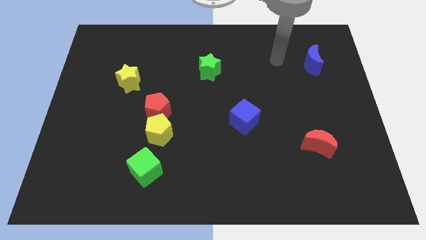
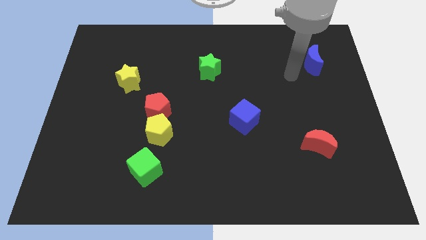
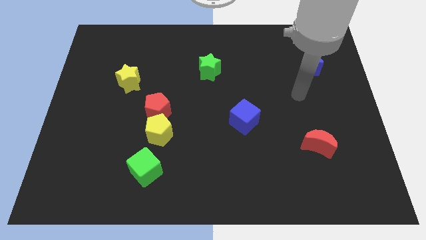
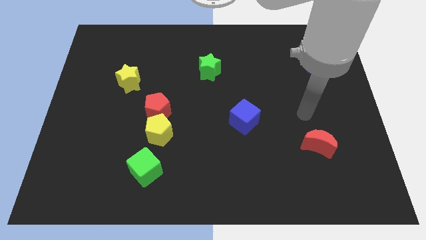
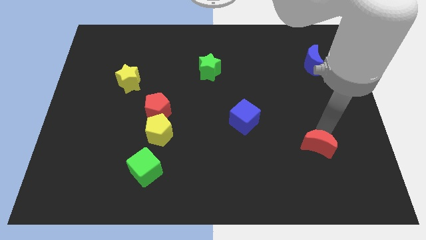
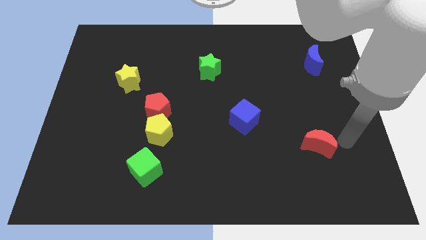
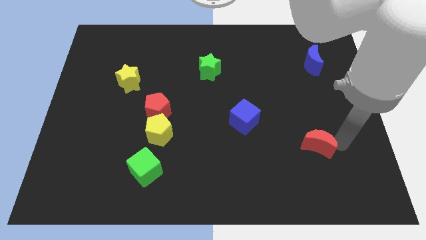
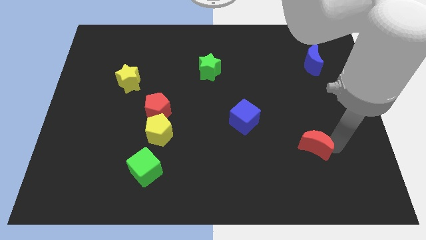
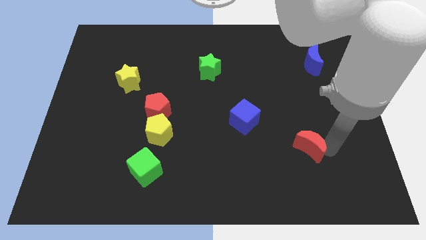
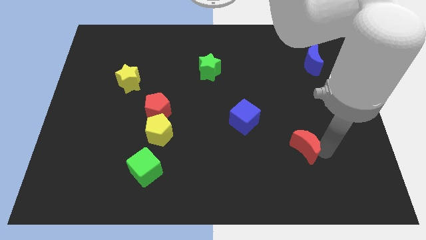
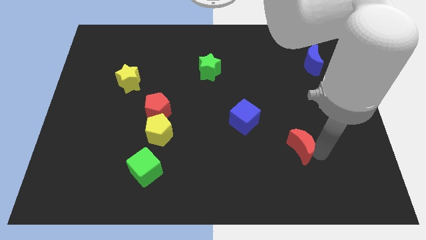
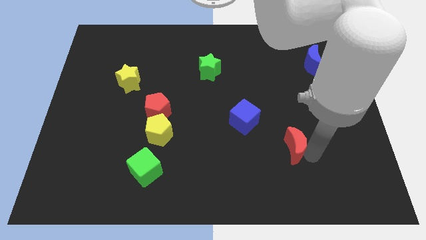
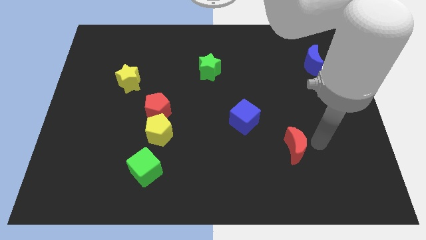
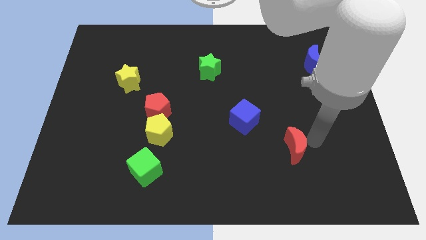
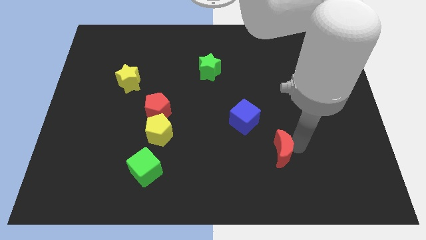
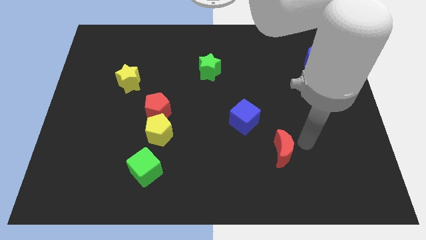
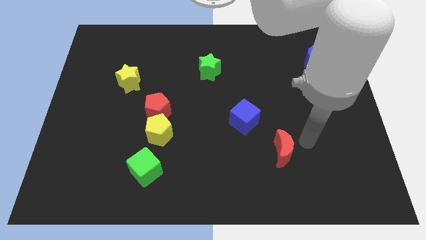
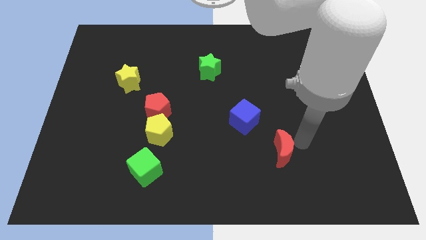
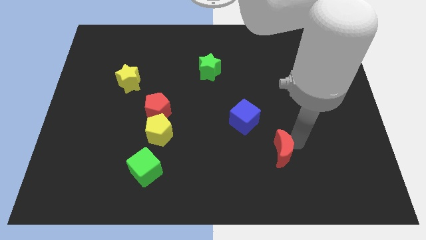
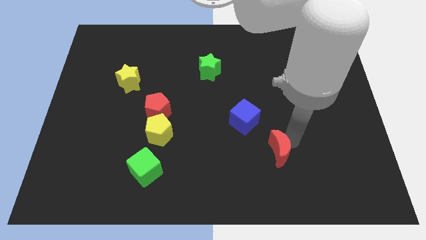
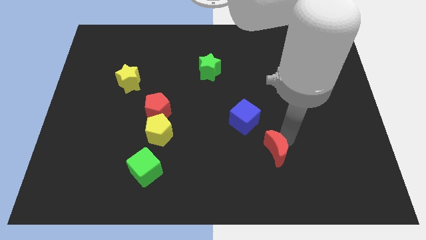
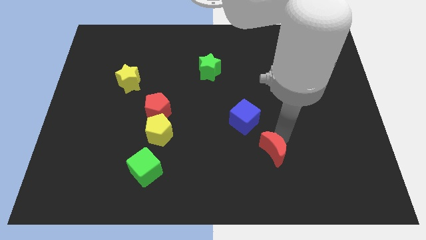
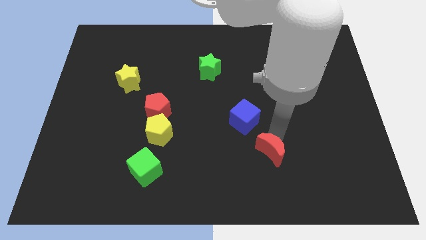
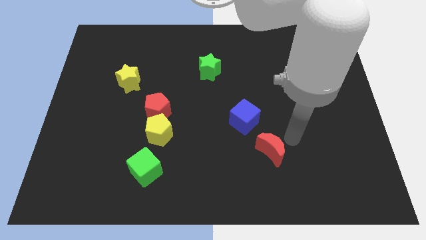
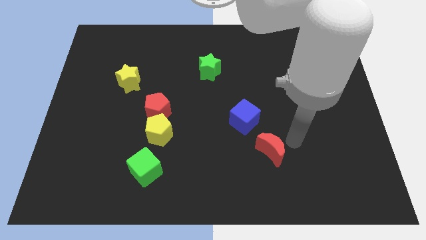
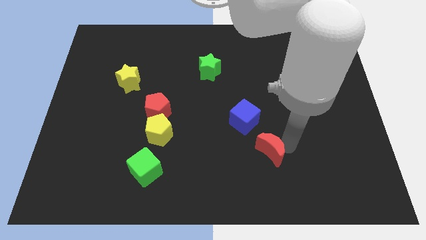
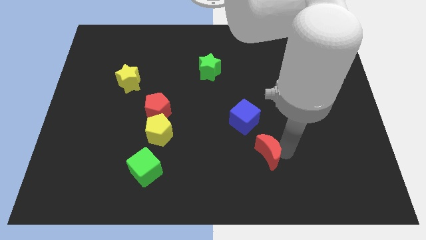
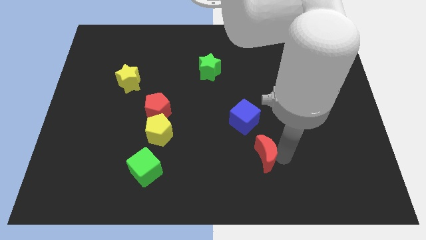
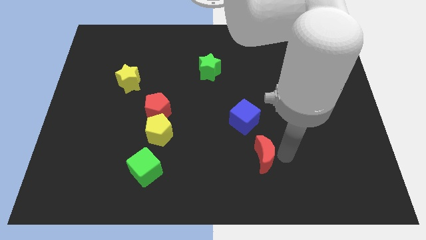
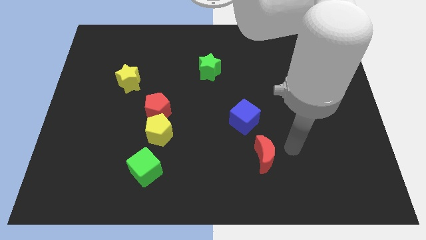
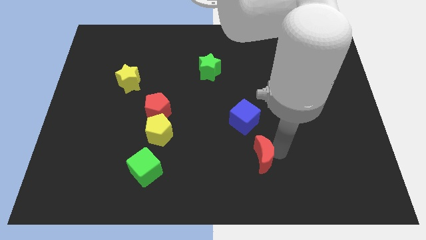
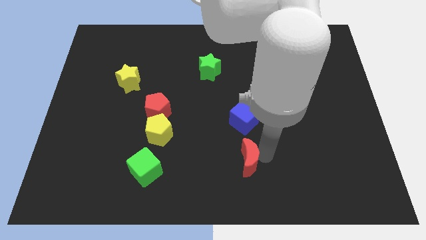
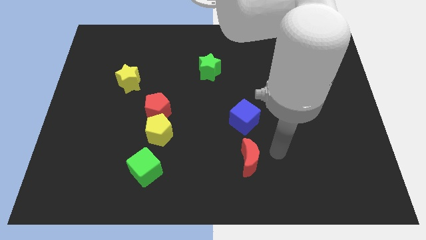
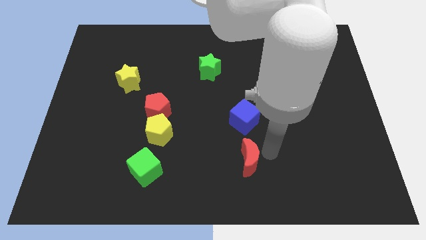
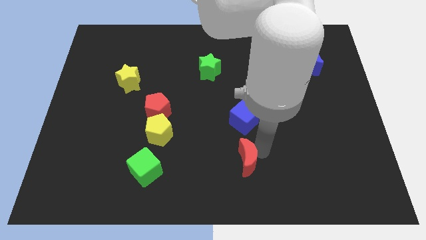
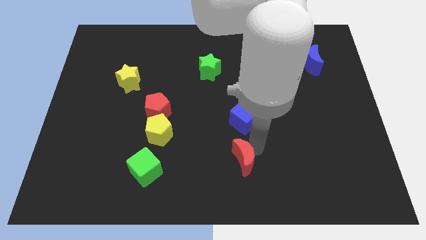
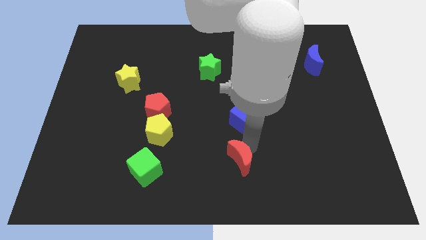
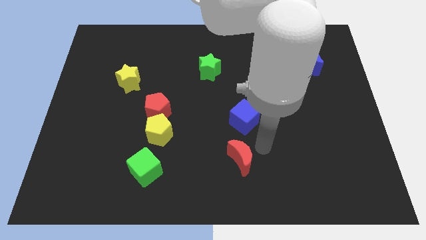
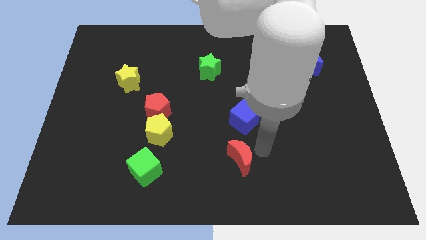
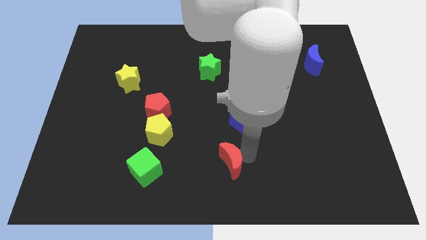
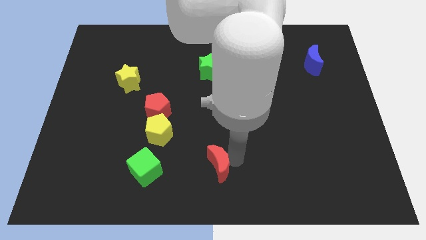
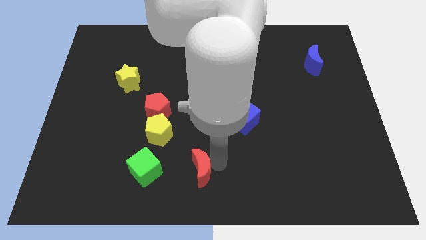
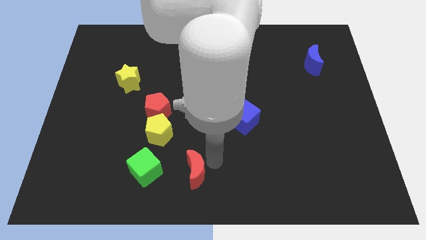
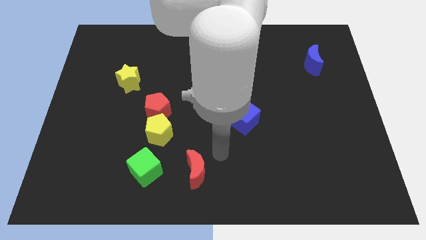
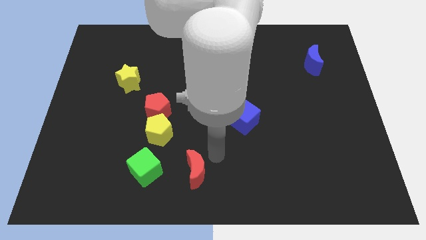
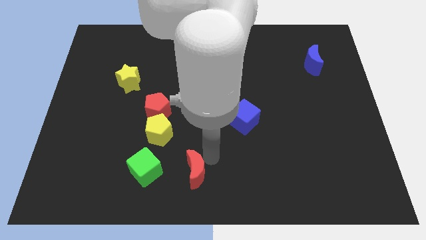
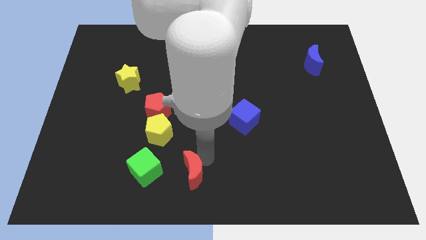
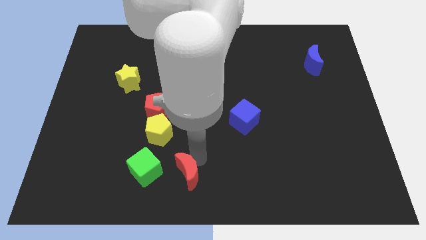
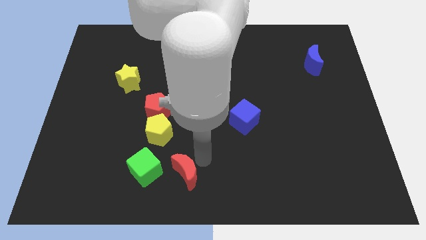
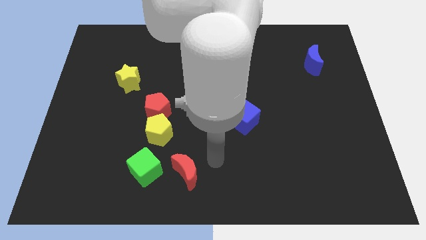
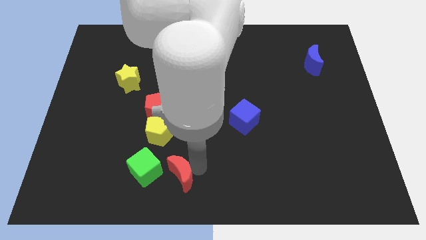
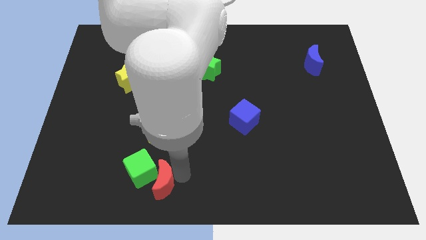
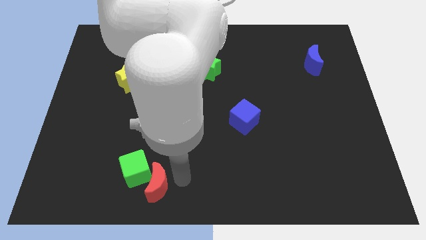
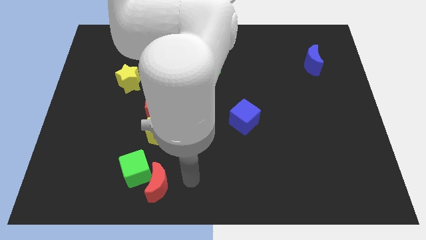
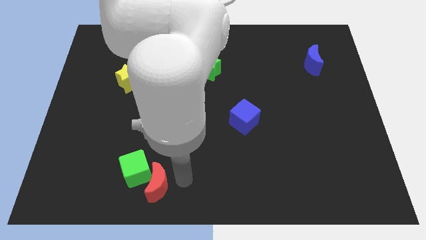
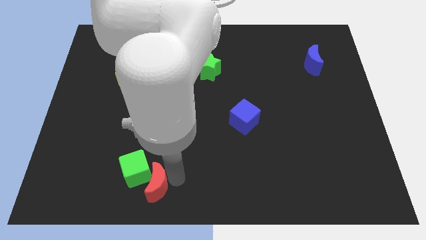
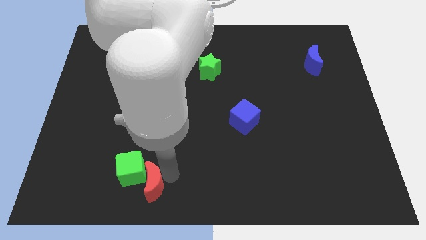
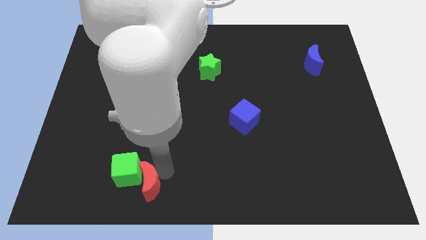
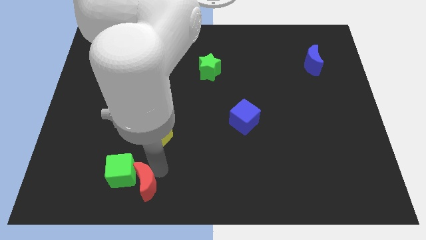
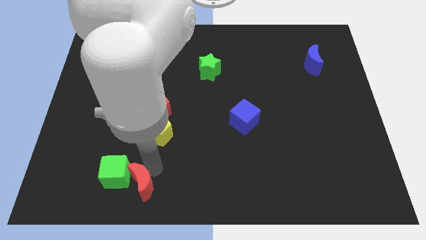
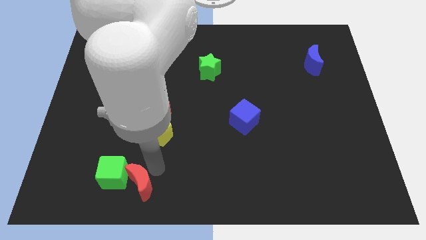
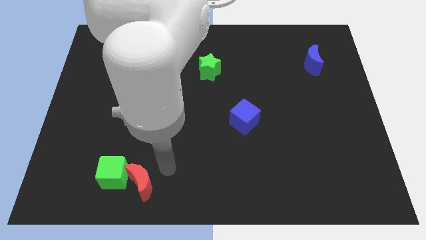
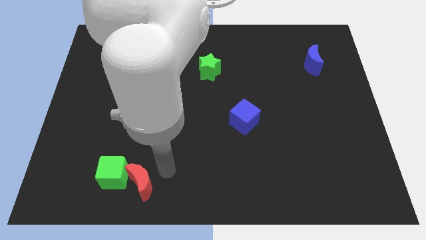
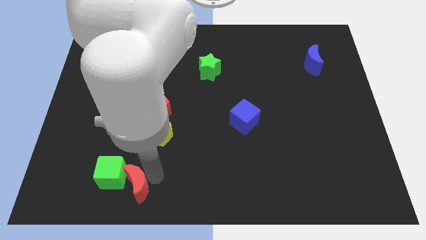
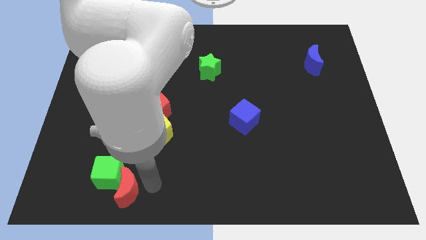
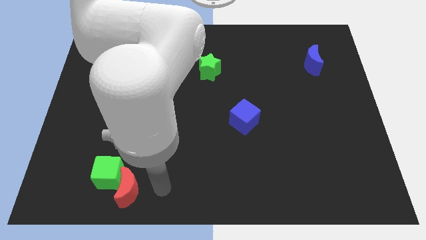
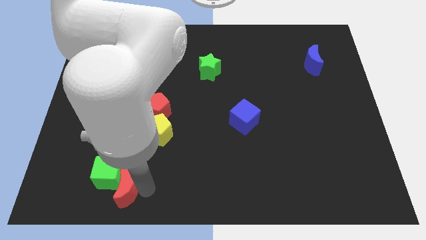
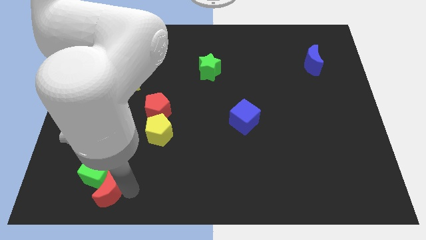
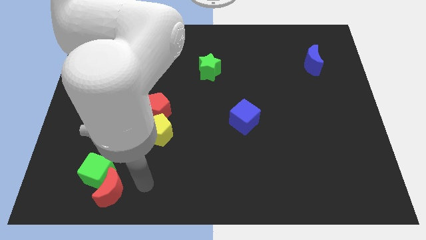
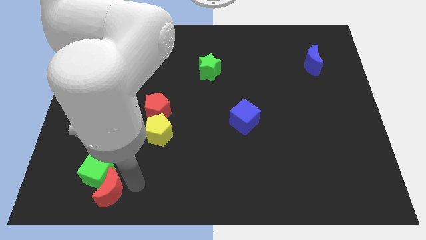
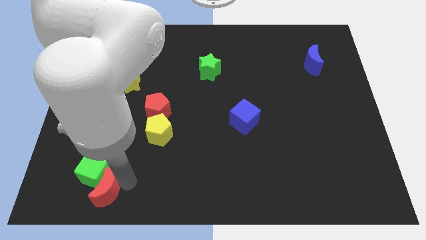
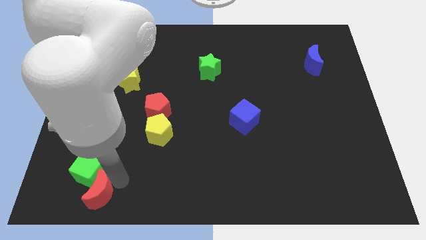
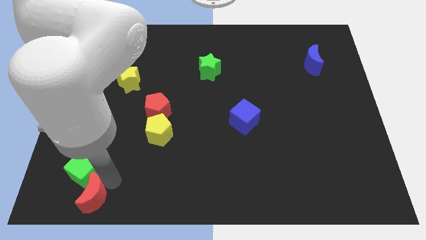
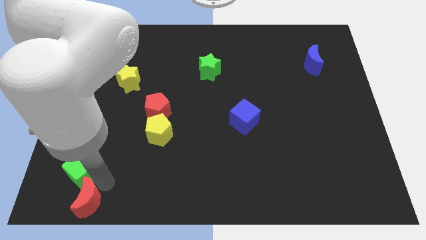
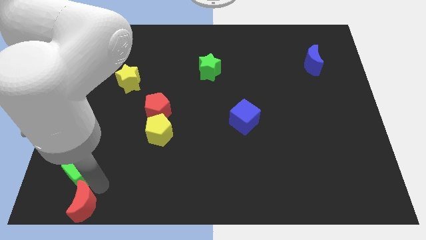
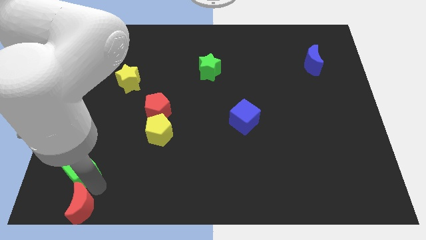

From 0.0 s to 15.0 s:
push the red moon to the lower left corner
